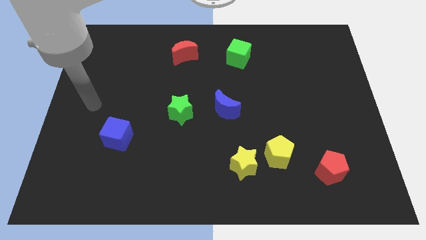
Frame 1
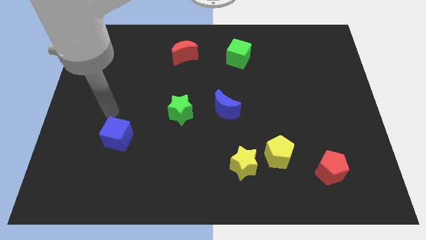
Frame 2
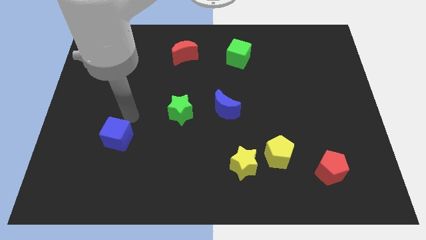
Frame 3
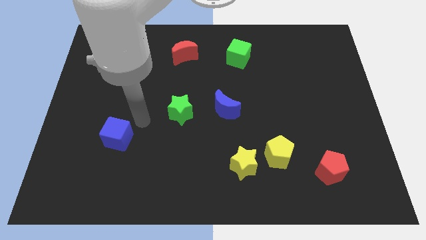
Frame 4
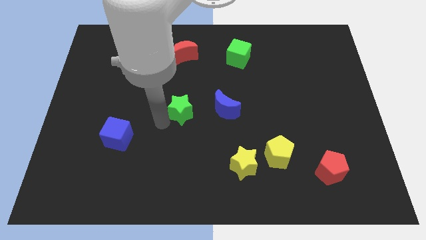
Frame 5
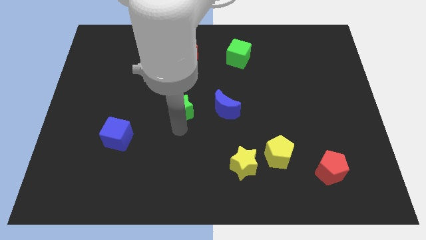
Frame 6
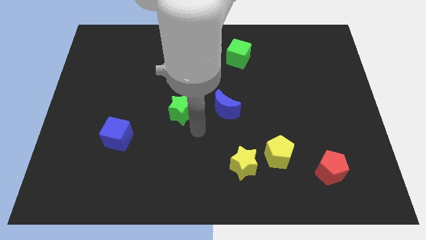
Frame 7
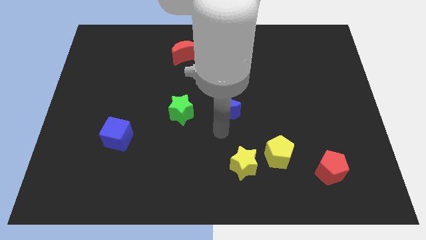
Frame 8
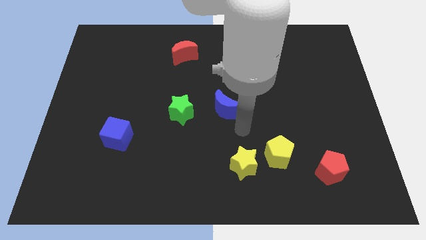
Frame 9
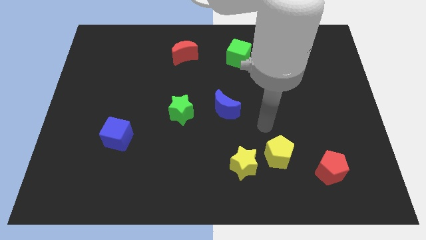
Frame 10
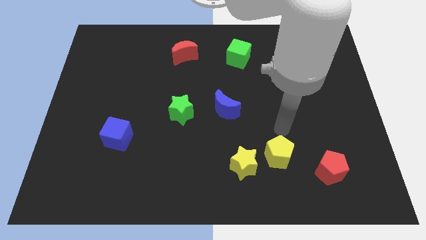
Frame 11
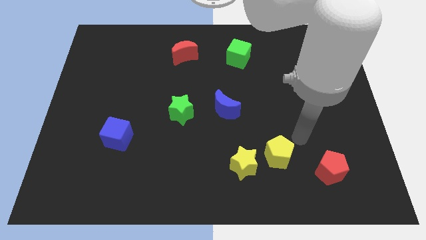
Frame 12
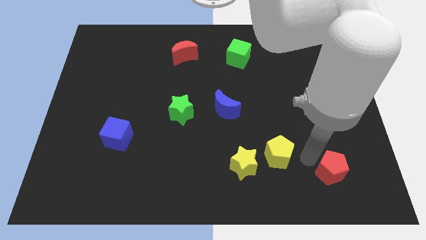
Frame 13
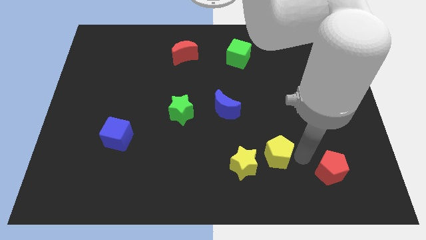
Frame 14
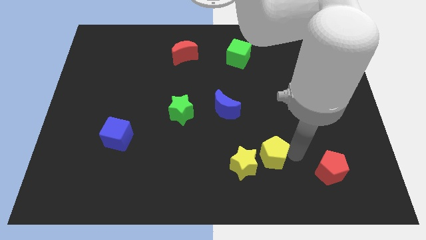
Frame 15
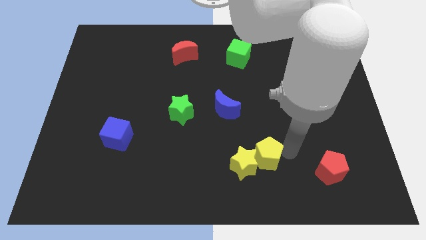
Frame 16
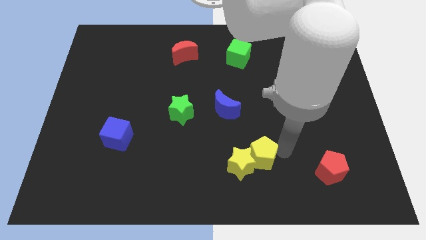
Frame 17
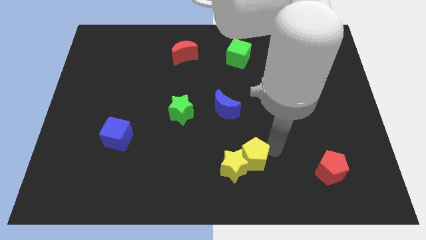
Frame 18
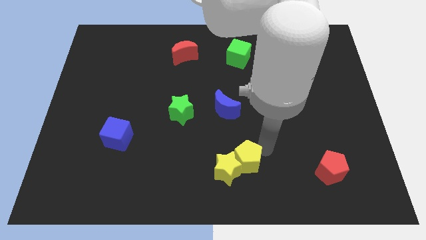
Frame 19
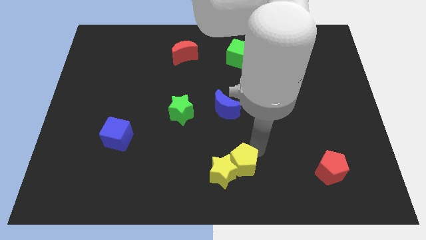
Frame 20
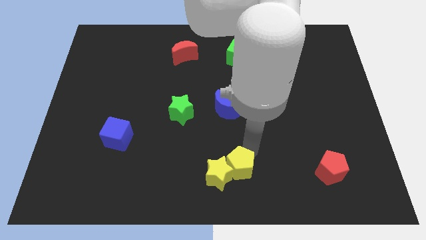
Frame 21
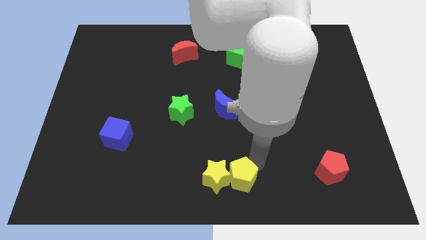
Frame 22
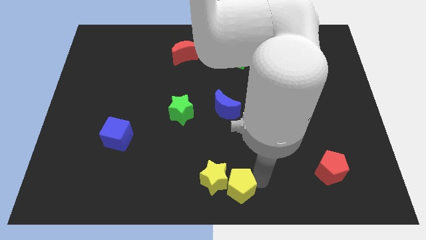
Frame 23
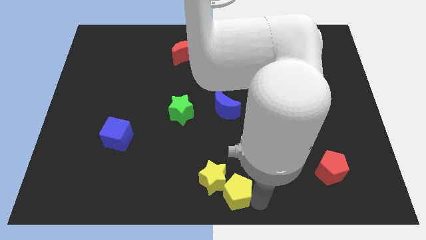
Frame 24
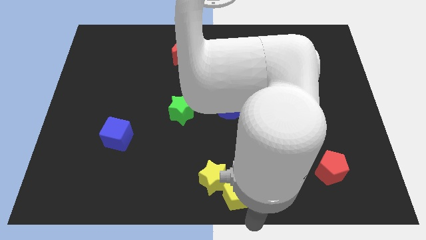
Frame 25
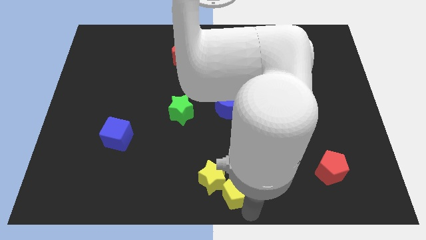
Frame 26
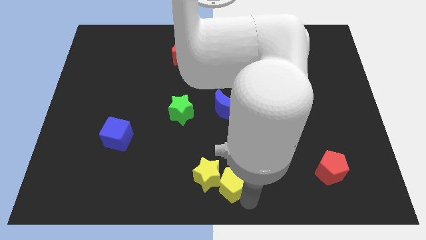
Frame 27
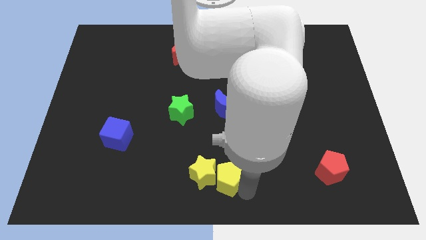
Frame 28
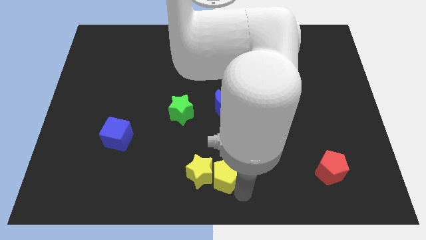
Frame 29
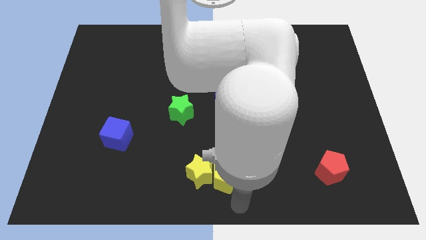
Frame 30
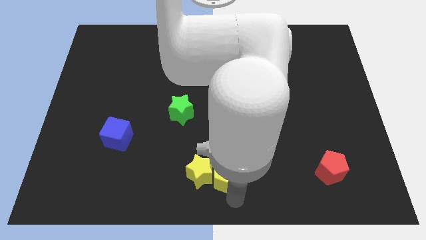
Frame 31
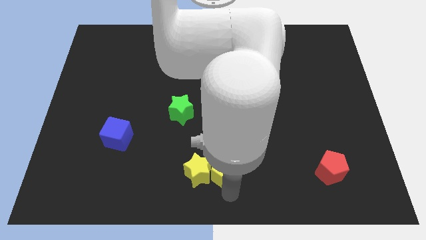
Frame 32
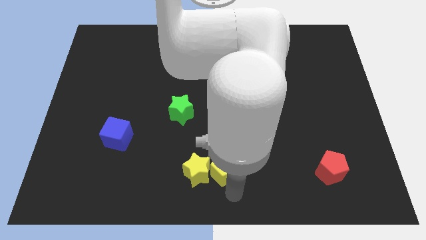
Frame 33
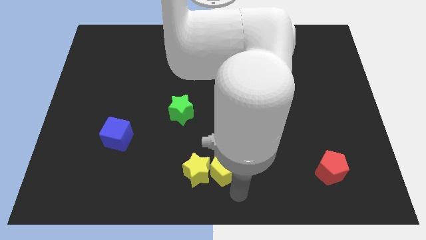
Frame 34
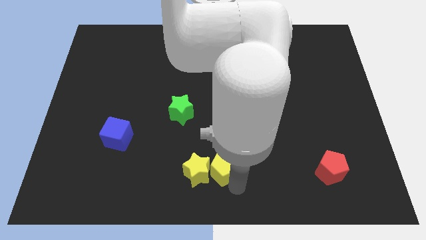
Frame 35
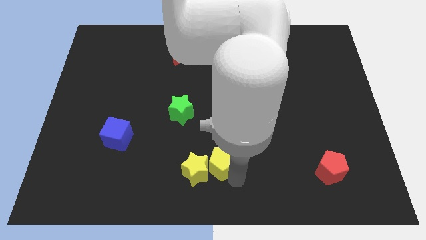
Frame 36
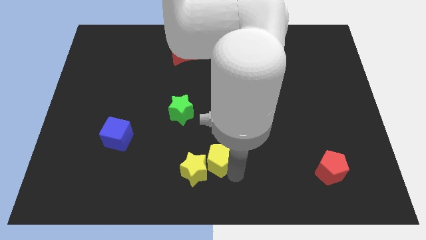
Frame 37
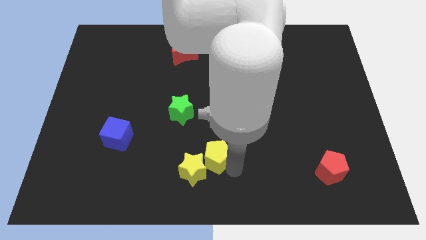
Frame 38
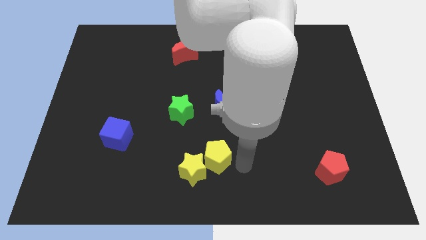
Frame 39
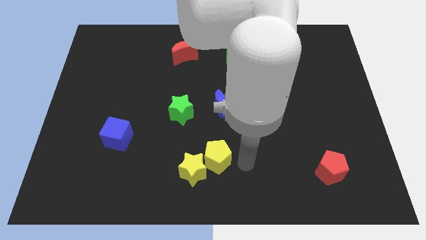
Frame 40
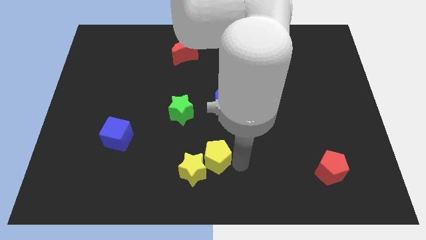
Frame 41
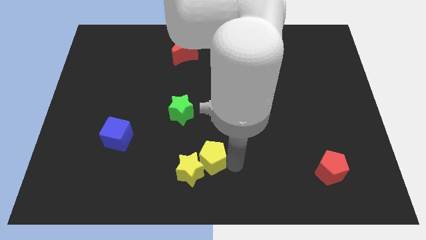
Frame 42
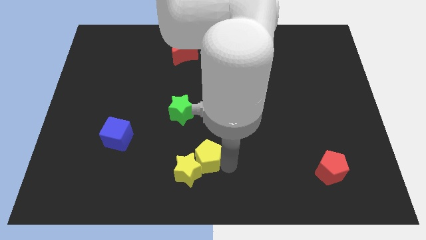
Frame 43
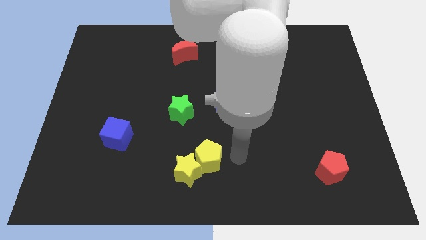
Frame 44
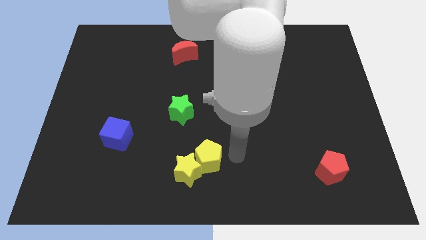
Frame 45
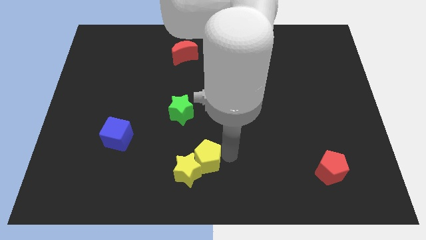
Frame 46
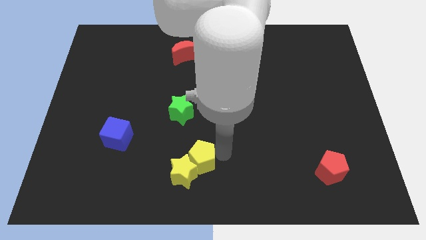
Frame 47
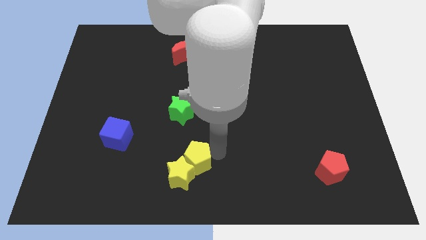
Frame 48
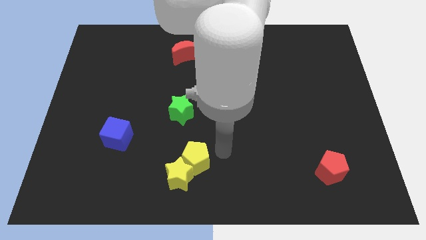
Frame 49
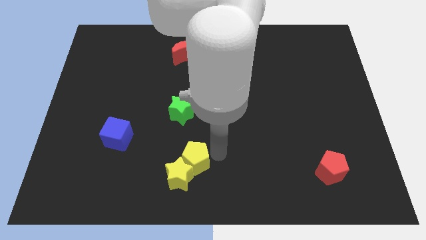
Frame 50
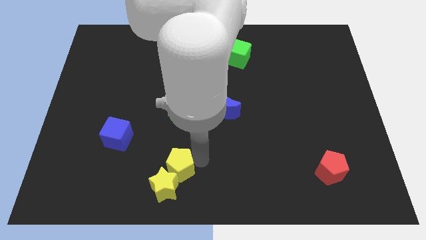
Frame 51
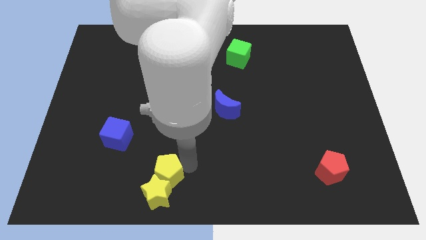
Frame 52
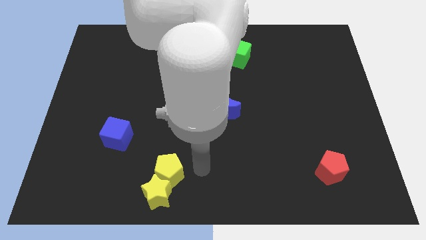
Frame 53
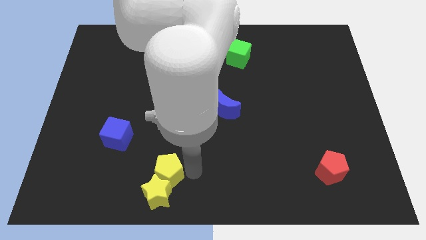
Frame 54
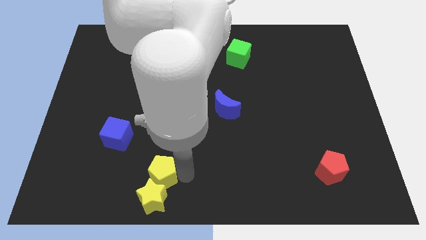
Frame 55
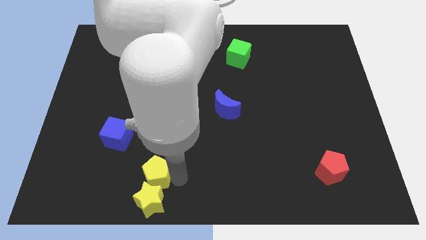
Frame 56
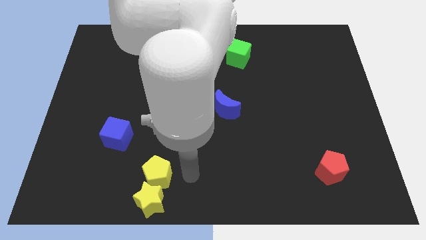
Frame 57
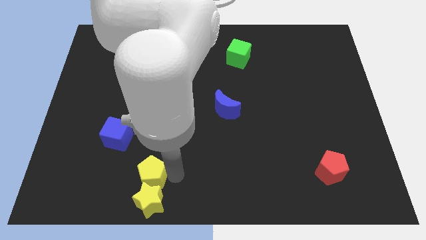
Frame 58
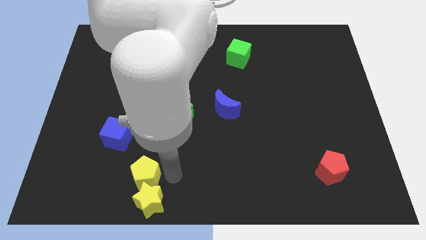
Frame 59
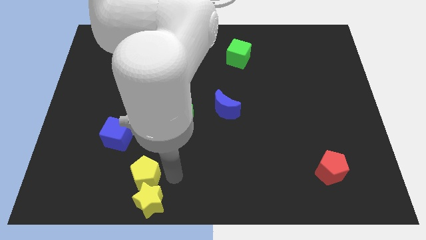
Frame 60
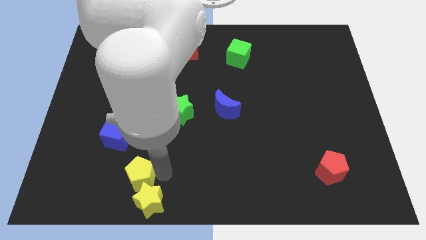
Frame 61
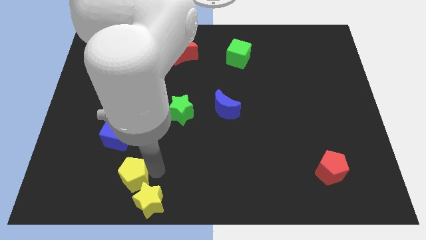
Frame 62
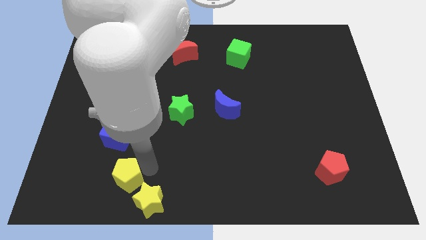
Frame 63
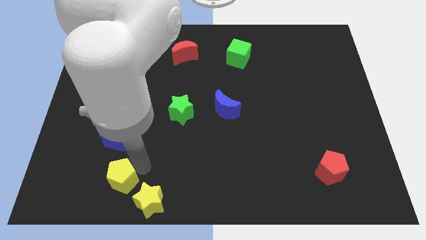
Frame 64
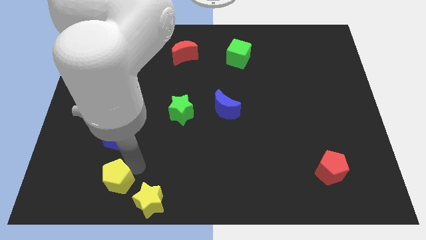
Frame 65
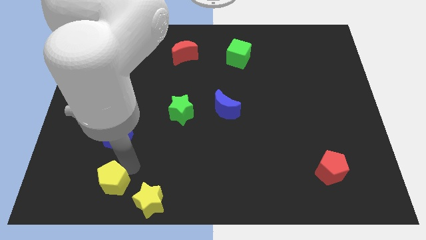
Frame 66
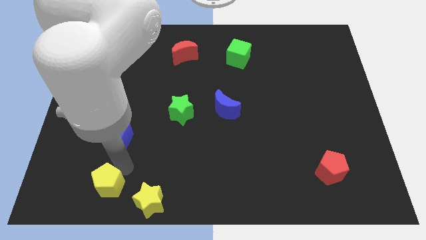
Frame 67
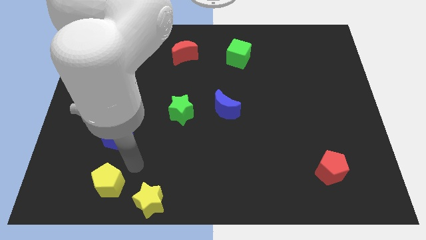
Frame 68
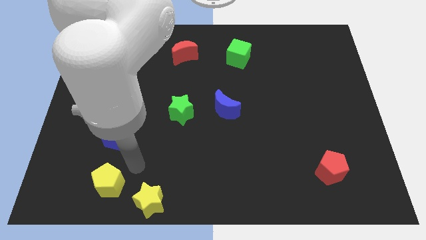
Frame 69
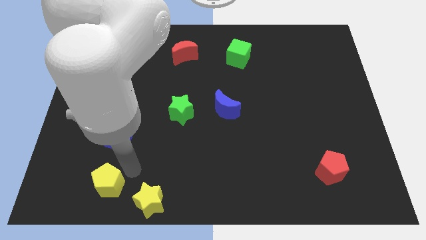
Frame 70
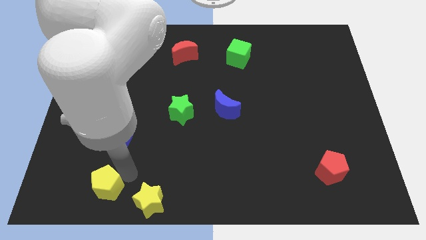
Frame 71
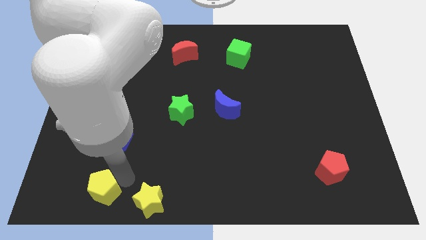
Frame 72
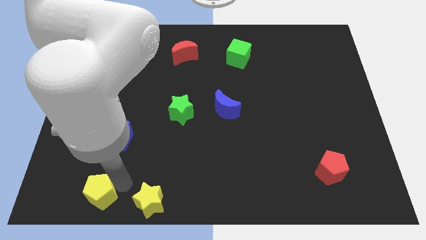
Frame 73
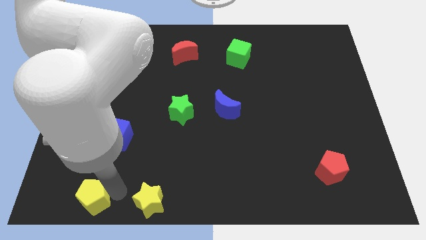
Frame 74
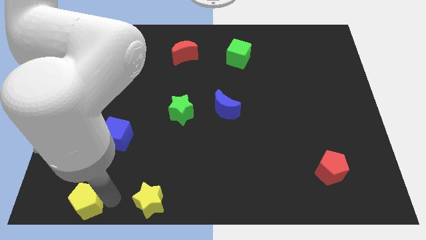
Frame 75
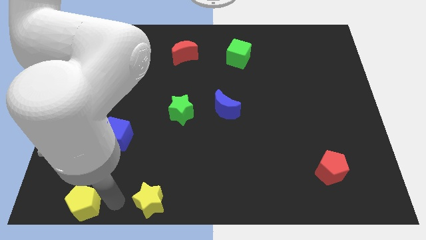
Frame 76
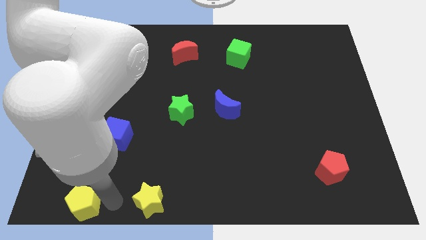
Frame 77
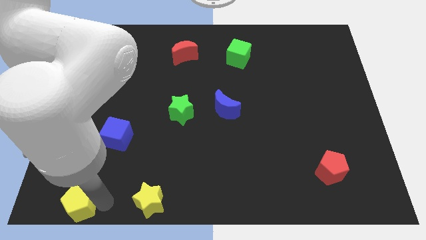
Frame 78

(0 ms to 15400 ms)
move the yellow pentagon to the bottom left
